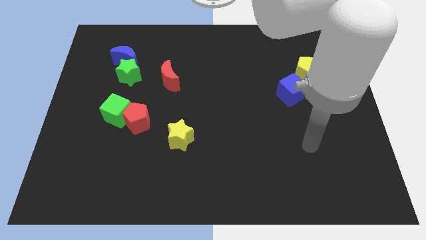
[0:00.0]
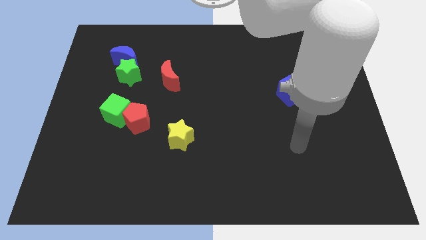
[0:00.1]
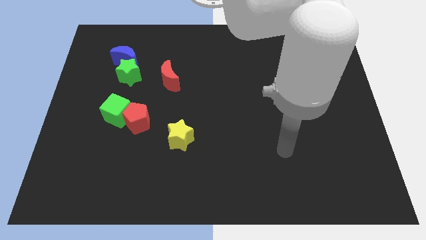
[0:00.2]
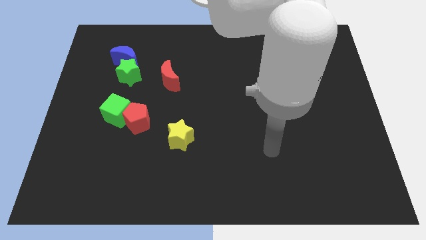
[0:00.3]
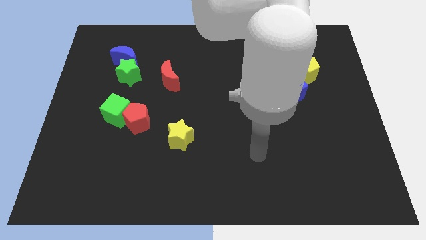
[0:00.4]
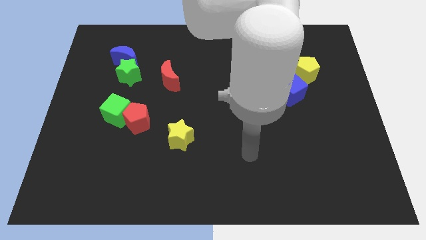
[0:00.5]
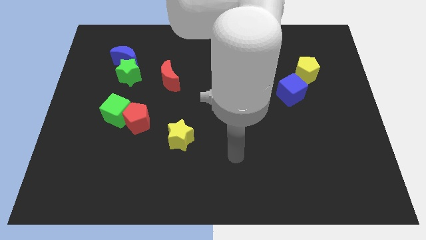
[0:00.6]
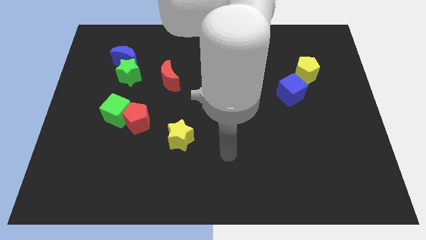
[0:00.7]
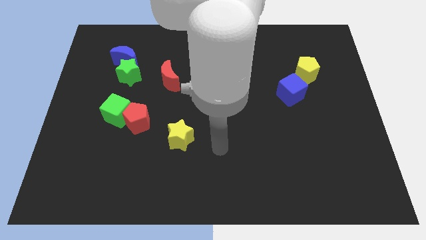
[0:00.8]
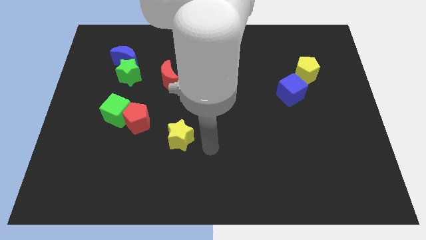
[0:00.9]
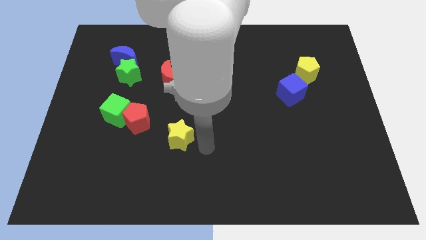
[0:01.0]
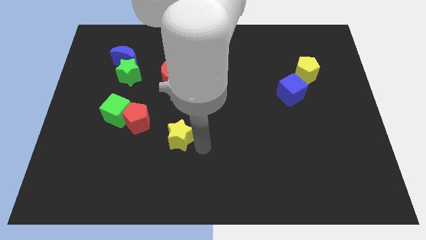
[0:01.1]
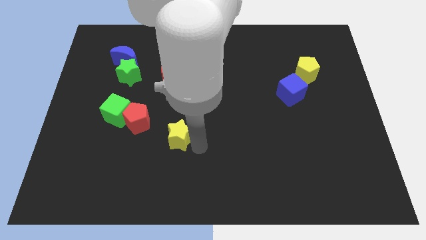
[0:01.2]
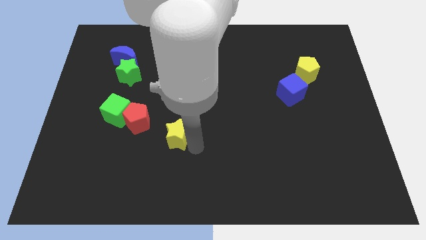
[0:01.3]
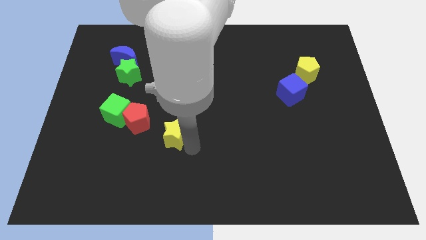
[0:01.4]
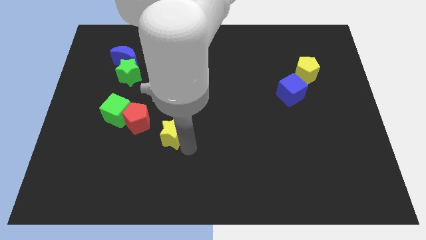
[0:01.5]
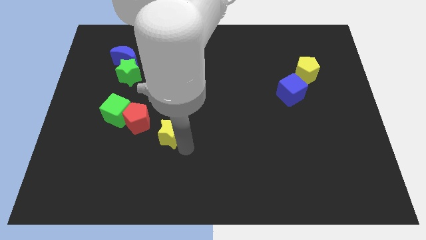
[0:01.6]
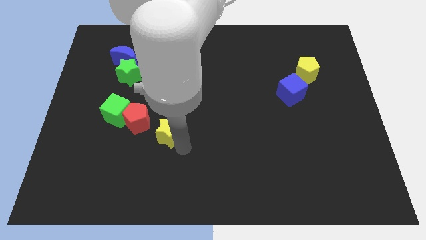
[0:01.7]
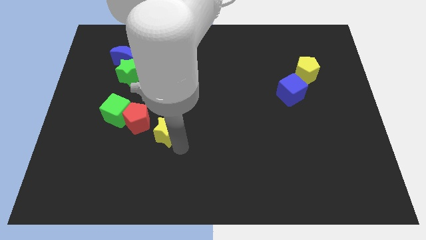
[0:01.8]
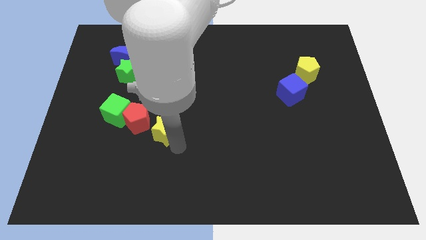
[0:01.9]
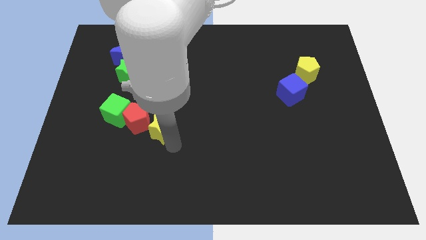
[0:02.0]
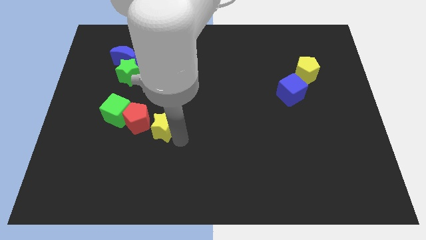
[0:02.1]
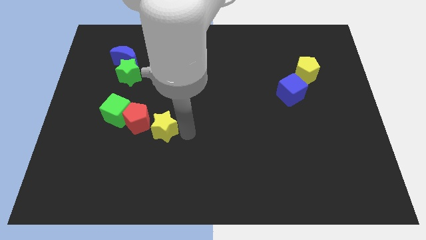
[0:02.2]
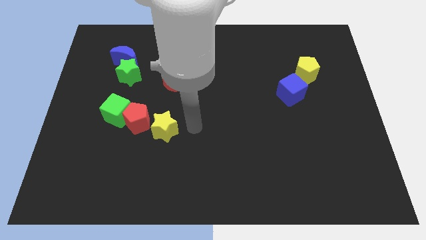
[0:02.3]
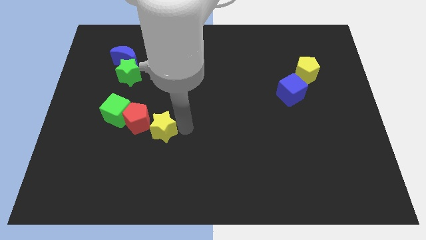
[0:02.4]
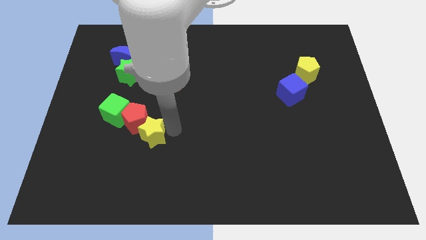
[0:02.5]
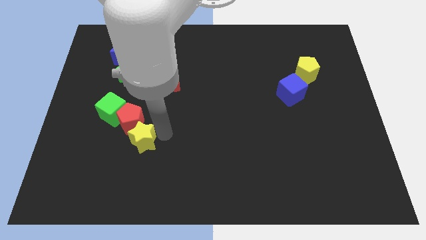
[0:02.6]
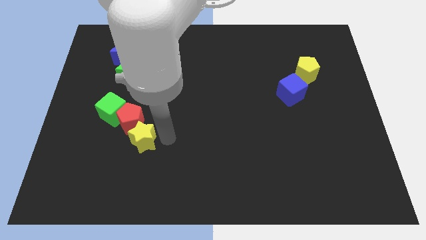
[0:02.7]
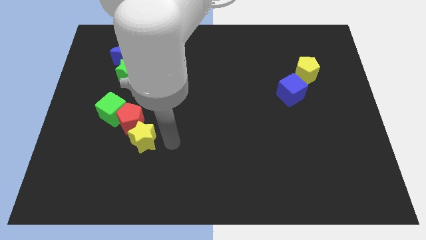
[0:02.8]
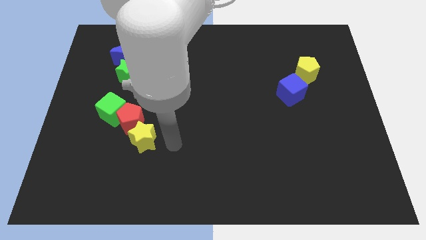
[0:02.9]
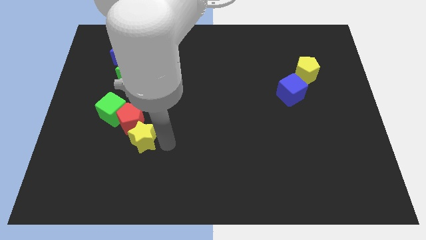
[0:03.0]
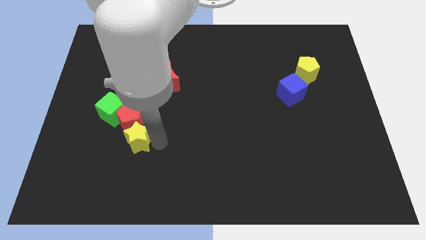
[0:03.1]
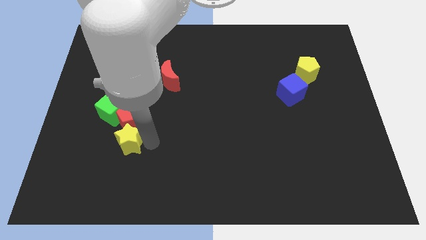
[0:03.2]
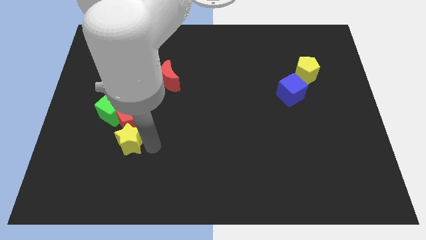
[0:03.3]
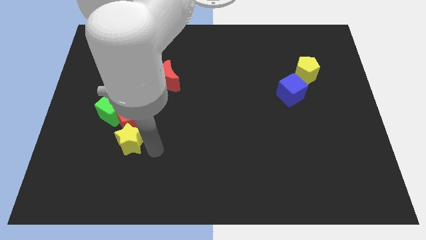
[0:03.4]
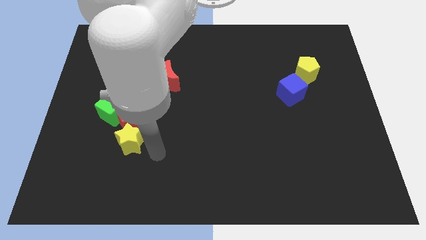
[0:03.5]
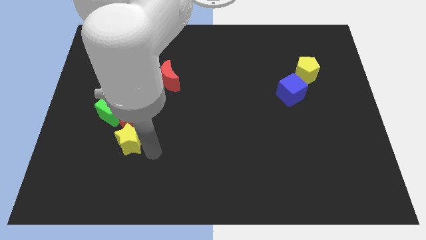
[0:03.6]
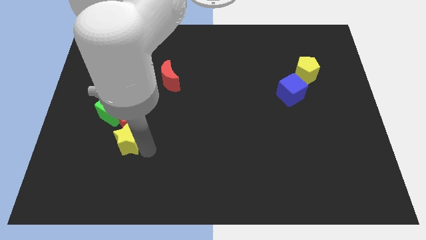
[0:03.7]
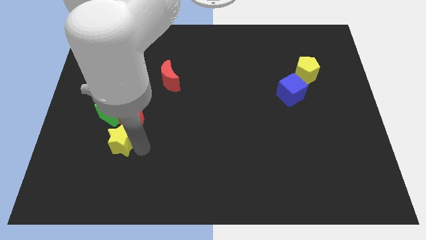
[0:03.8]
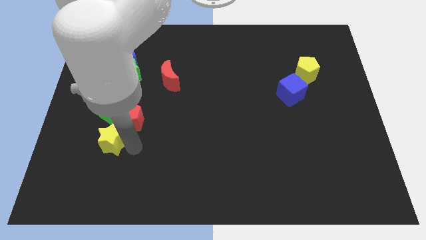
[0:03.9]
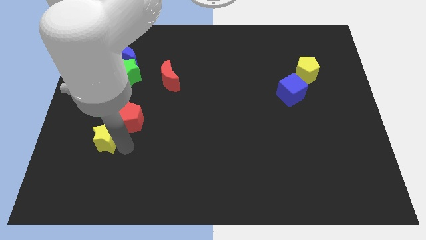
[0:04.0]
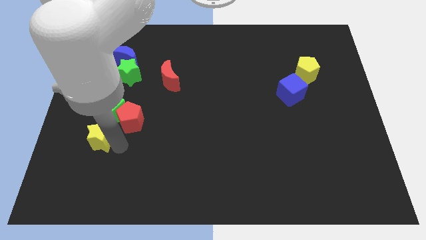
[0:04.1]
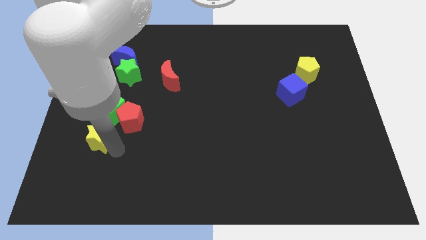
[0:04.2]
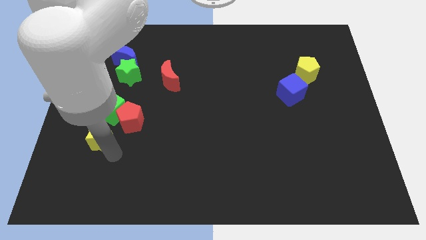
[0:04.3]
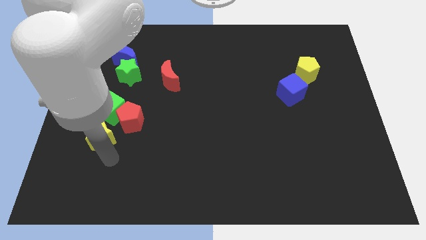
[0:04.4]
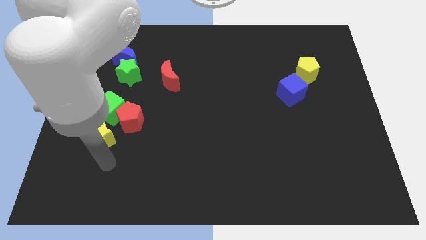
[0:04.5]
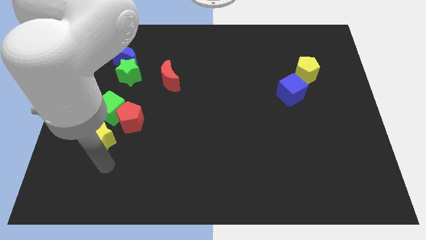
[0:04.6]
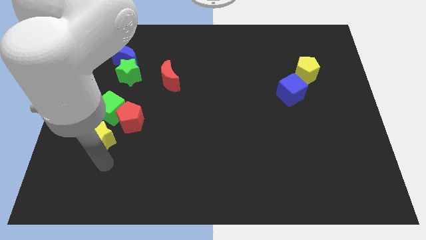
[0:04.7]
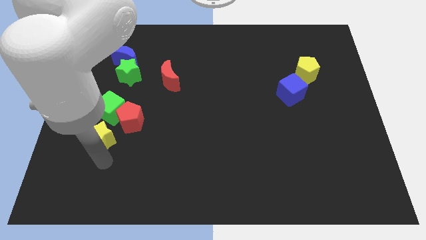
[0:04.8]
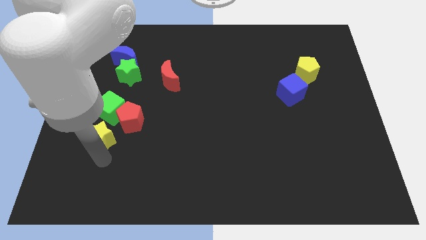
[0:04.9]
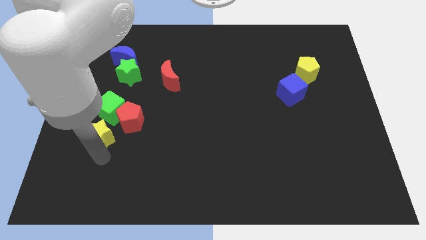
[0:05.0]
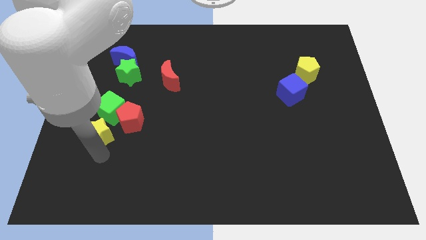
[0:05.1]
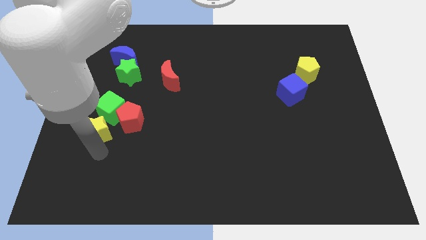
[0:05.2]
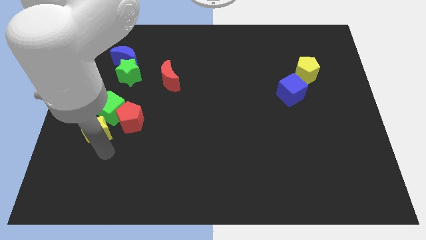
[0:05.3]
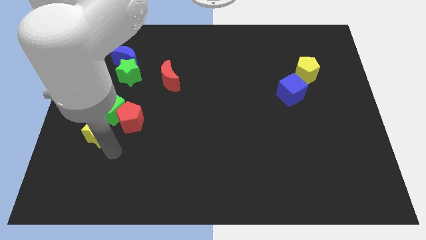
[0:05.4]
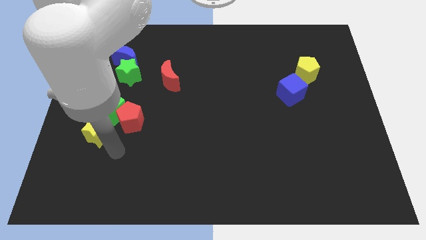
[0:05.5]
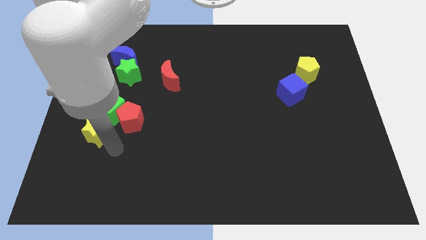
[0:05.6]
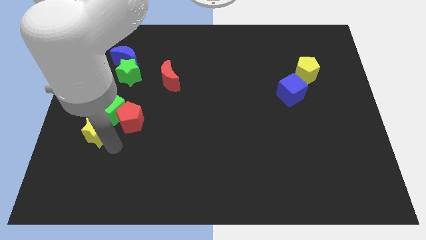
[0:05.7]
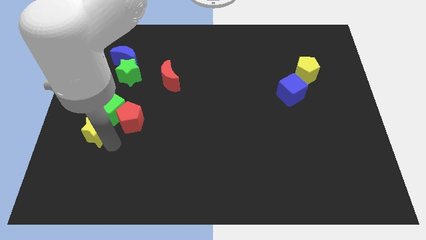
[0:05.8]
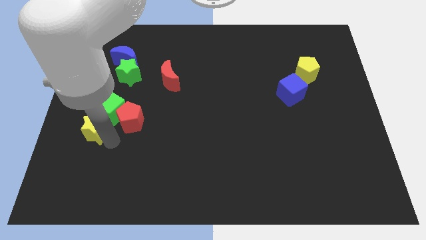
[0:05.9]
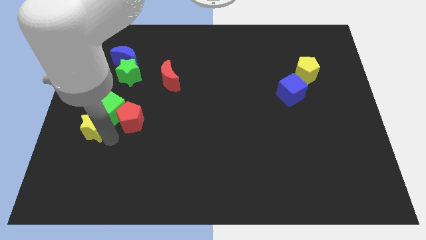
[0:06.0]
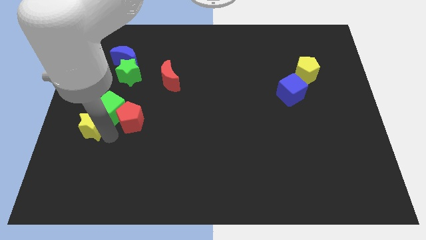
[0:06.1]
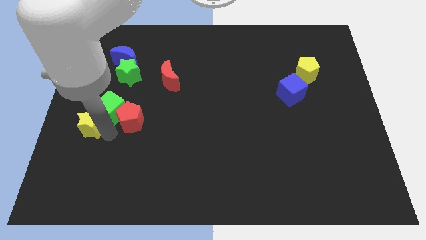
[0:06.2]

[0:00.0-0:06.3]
push the yellow star to the left side of the board
